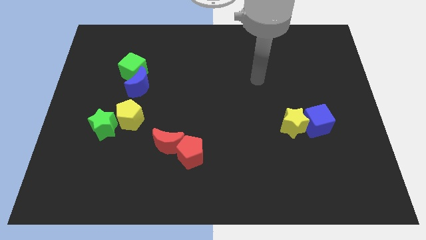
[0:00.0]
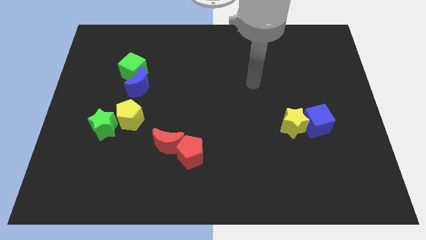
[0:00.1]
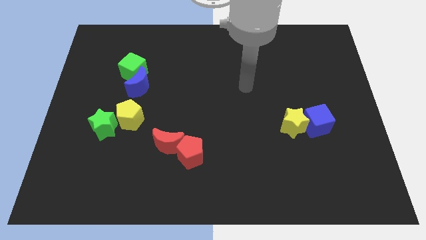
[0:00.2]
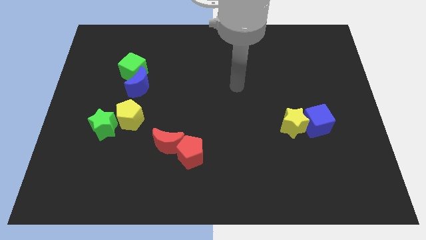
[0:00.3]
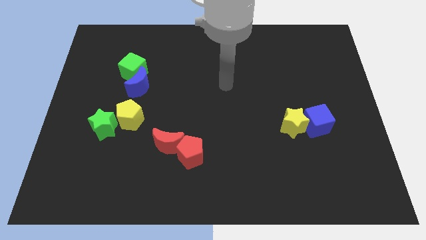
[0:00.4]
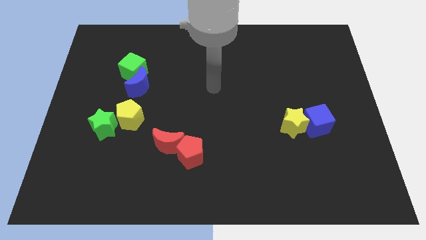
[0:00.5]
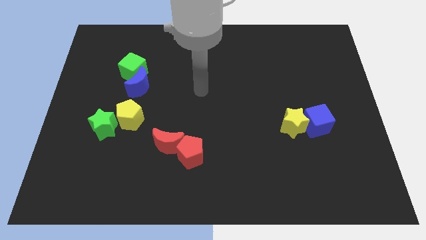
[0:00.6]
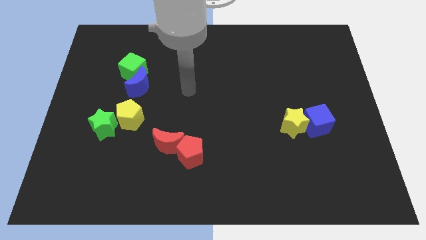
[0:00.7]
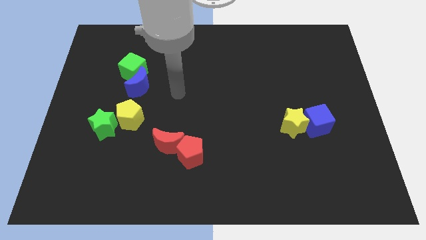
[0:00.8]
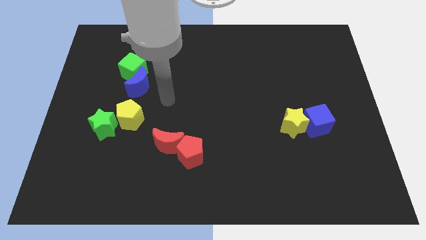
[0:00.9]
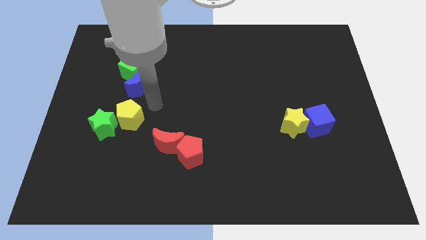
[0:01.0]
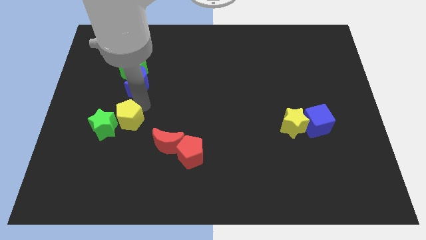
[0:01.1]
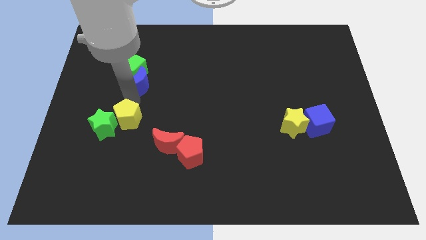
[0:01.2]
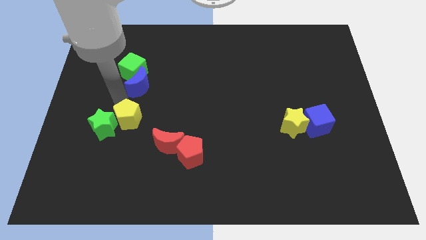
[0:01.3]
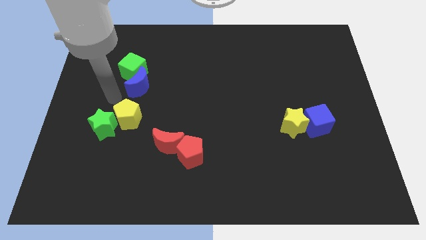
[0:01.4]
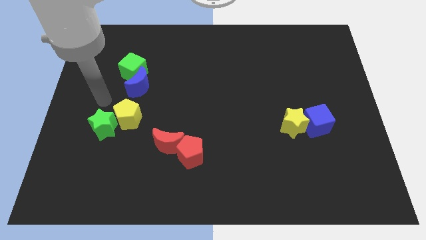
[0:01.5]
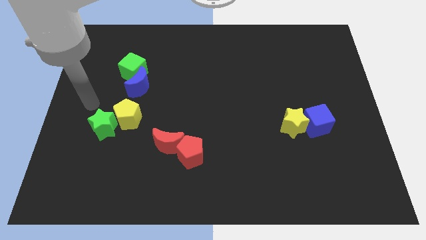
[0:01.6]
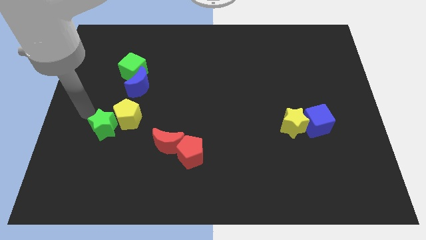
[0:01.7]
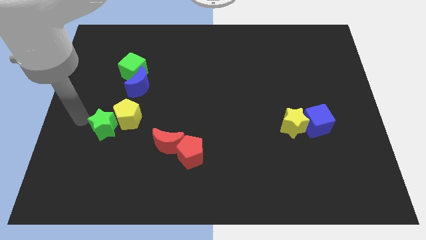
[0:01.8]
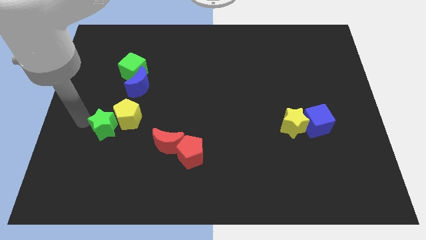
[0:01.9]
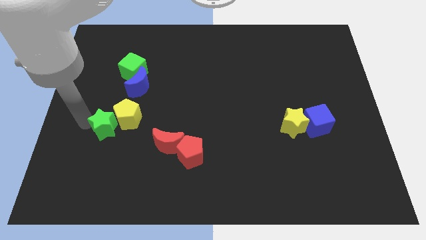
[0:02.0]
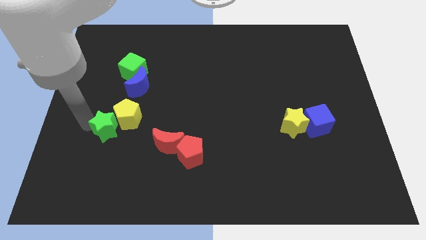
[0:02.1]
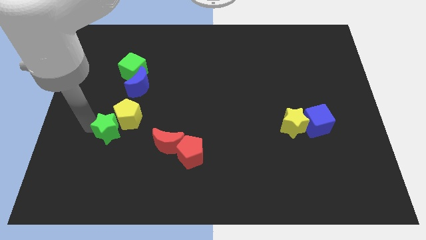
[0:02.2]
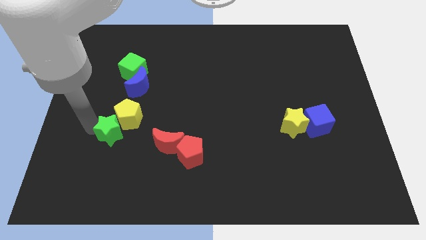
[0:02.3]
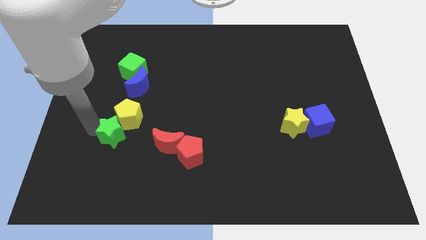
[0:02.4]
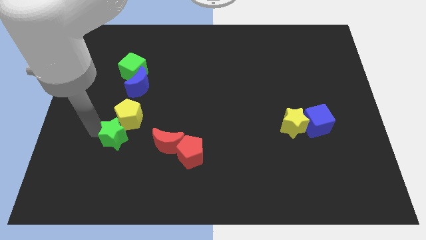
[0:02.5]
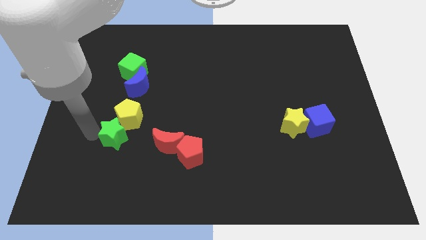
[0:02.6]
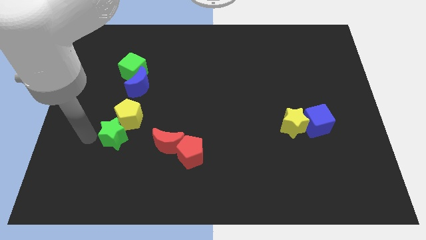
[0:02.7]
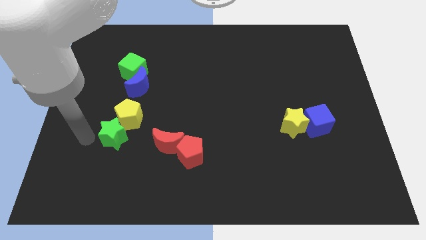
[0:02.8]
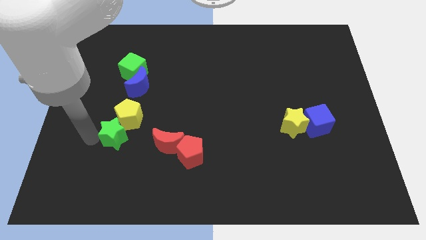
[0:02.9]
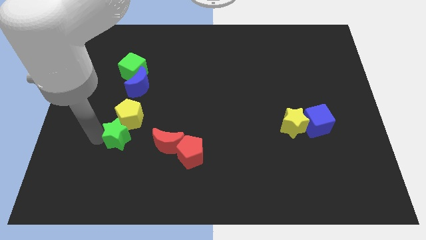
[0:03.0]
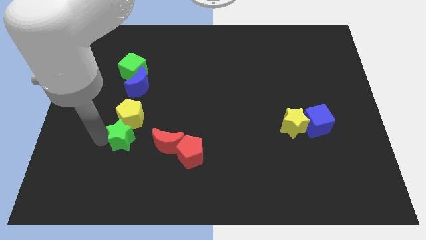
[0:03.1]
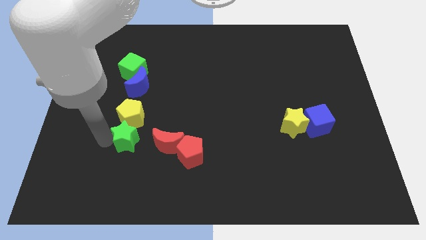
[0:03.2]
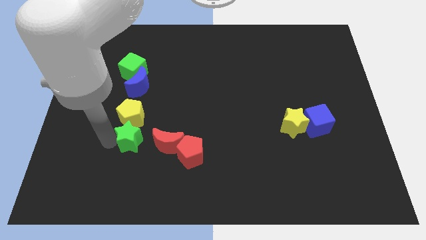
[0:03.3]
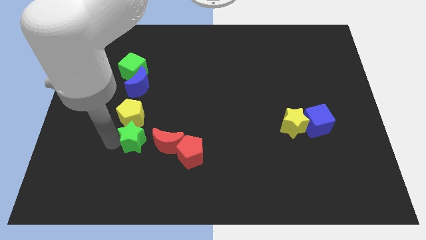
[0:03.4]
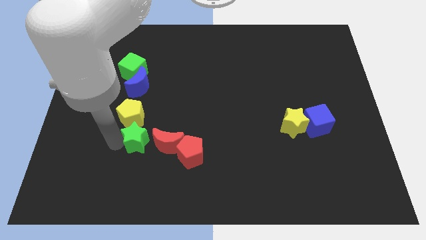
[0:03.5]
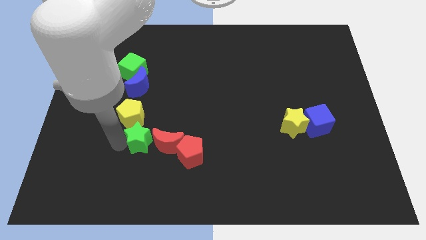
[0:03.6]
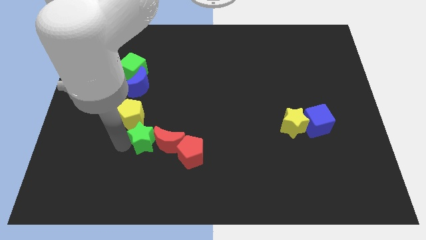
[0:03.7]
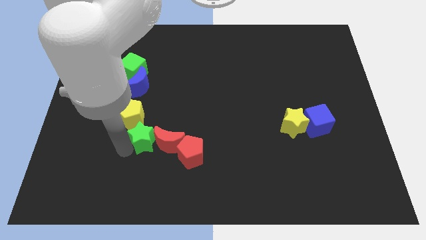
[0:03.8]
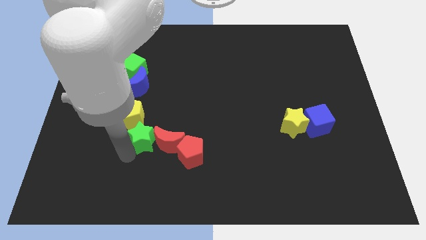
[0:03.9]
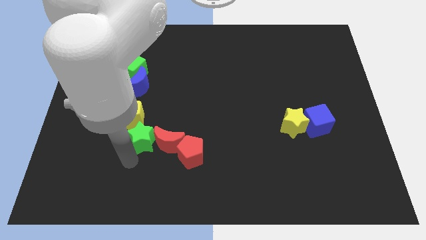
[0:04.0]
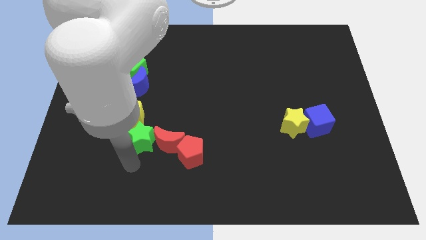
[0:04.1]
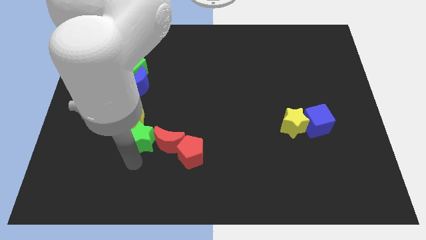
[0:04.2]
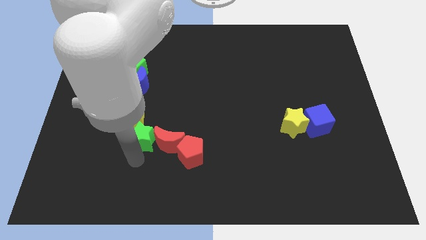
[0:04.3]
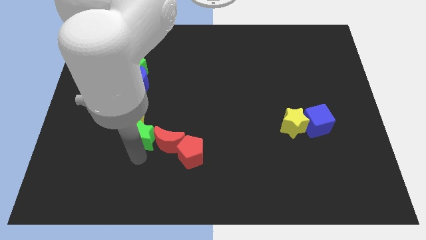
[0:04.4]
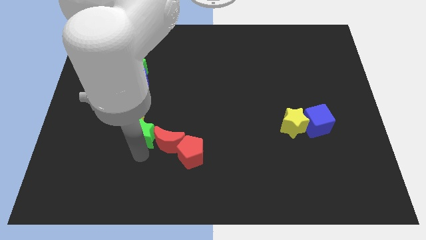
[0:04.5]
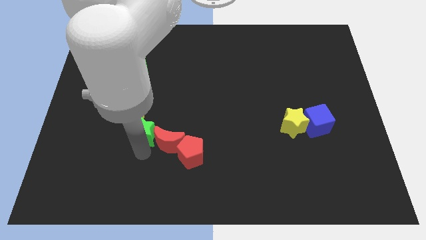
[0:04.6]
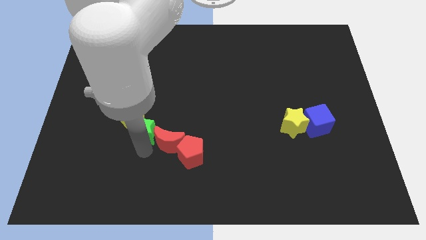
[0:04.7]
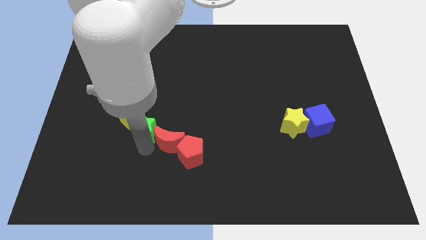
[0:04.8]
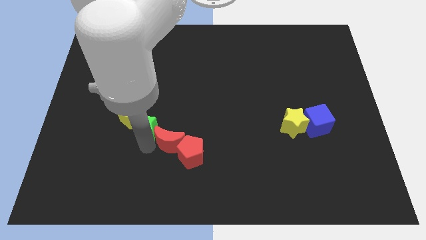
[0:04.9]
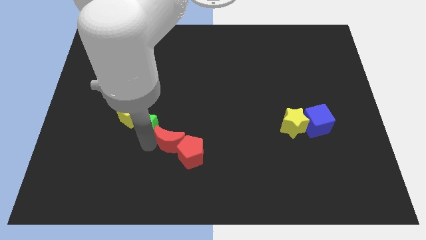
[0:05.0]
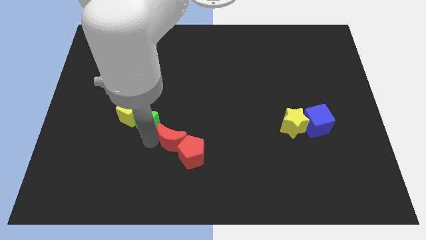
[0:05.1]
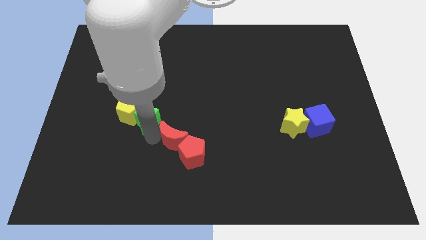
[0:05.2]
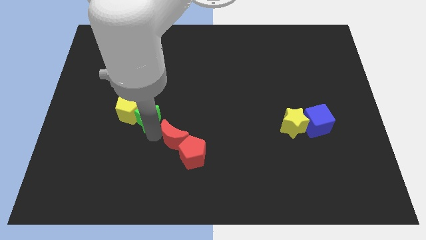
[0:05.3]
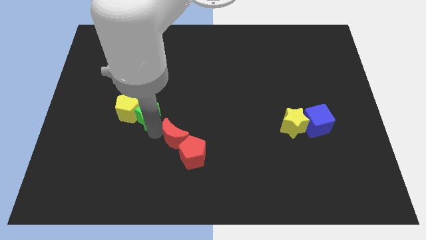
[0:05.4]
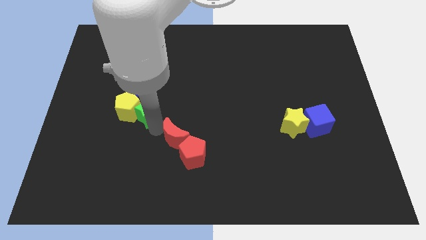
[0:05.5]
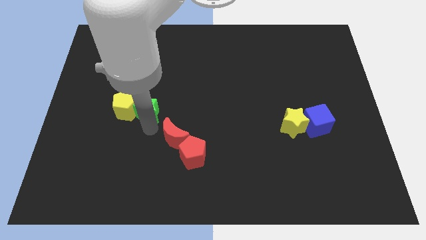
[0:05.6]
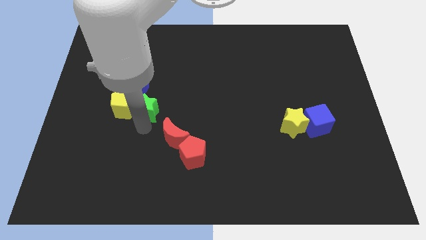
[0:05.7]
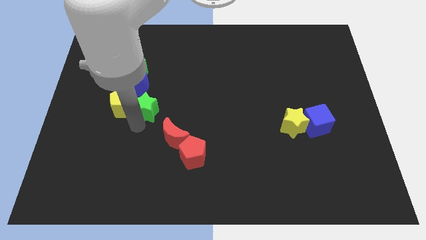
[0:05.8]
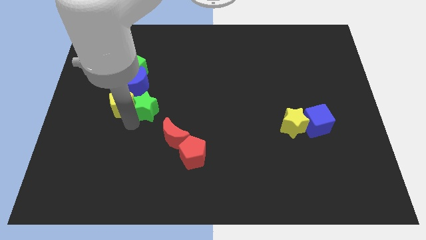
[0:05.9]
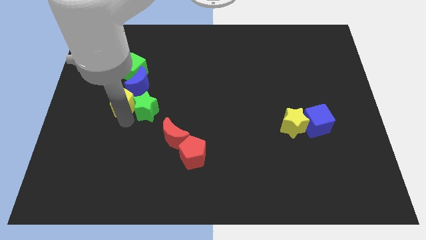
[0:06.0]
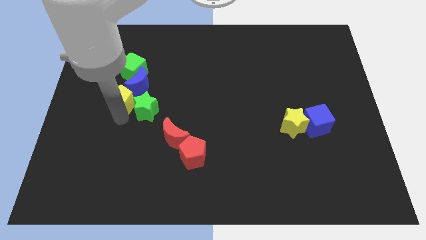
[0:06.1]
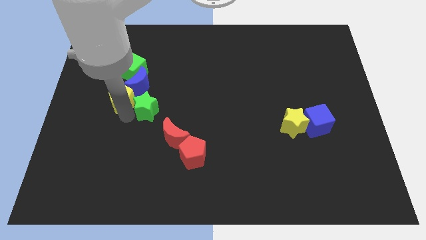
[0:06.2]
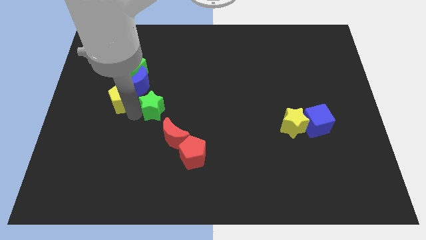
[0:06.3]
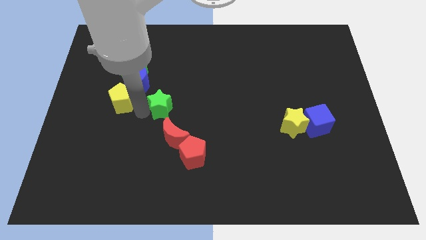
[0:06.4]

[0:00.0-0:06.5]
put the green star to the top of the red moon

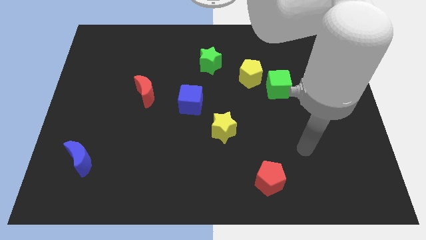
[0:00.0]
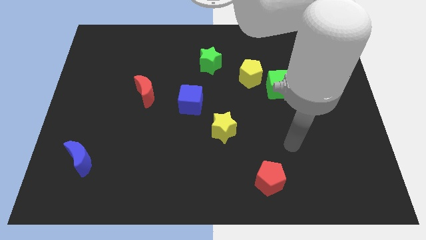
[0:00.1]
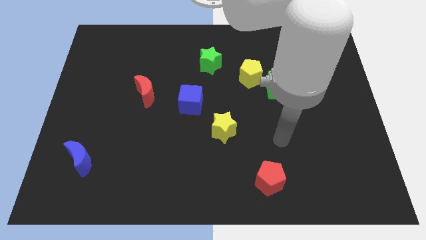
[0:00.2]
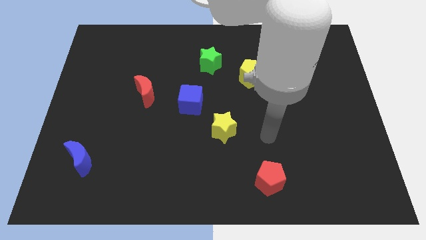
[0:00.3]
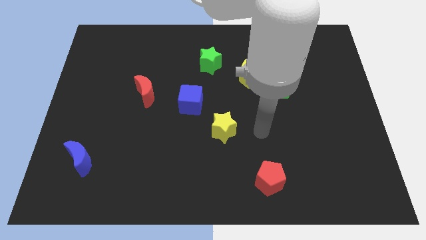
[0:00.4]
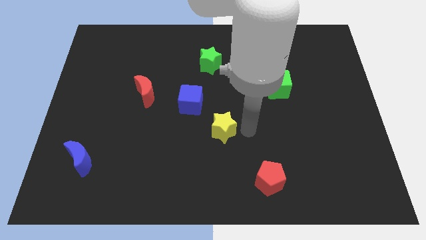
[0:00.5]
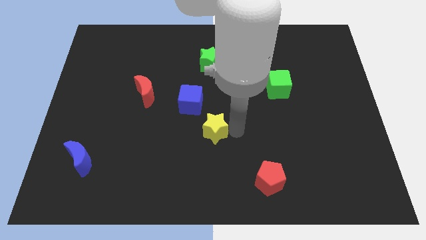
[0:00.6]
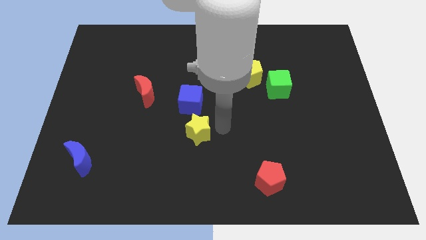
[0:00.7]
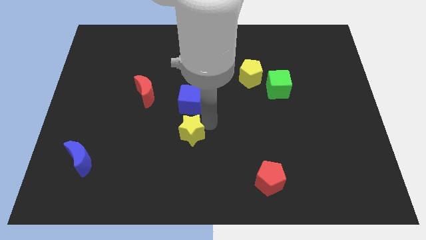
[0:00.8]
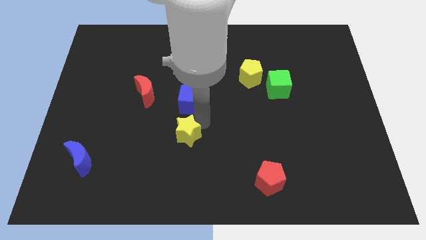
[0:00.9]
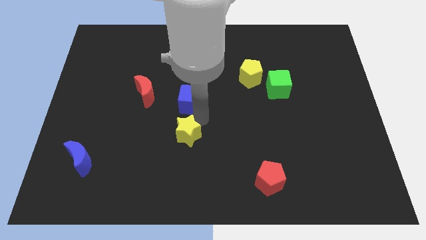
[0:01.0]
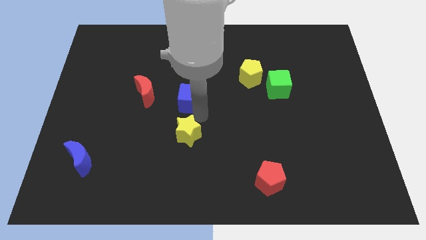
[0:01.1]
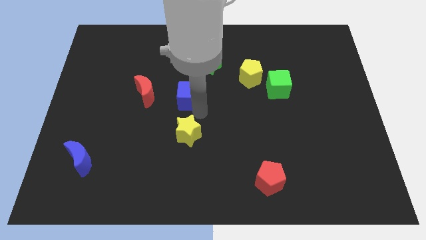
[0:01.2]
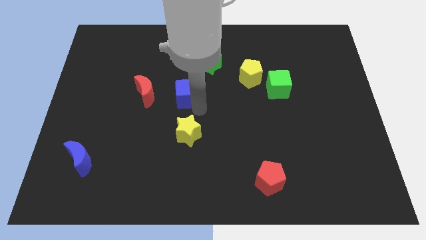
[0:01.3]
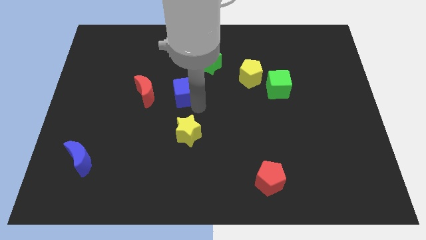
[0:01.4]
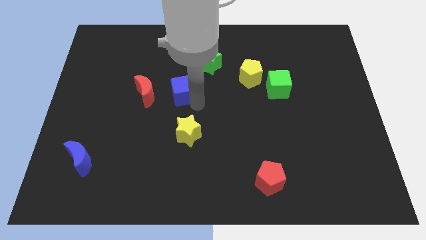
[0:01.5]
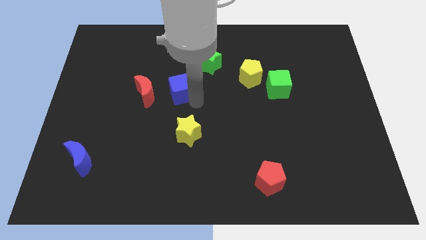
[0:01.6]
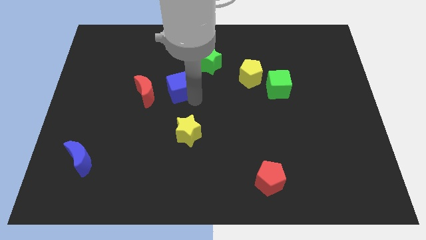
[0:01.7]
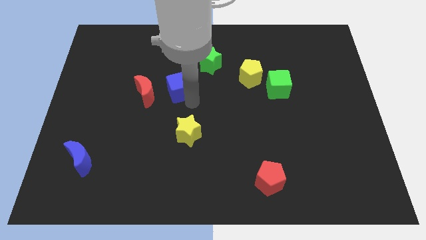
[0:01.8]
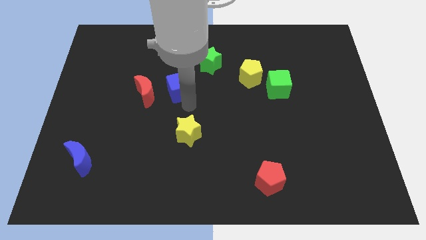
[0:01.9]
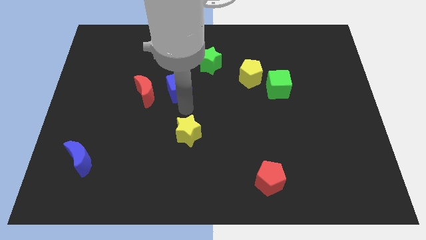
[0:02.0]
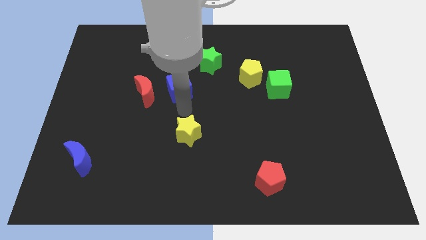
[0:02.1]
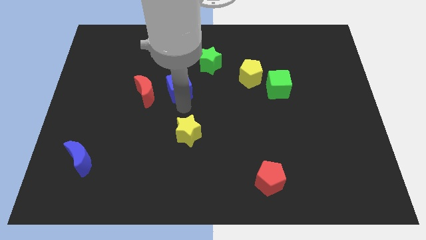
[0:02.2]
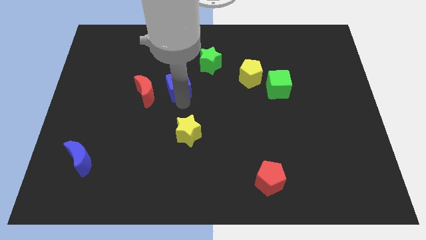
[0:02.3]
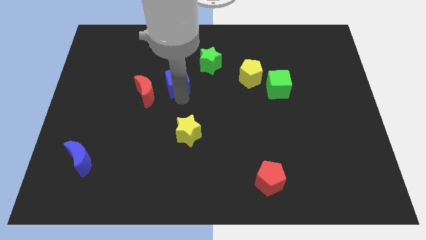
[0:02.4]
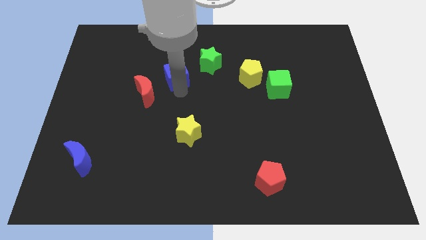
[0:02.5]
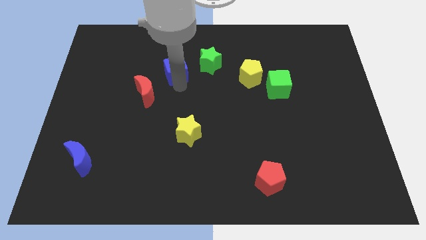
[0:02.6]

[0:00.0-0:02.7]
slide the blue cube left of the green star
